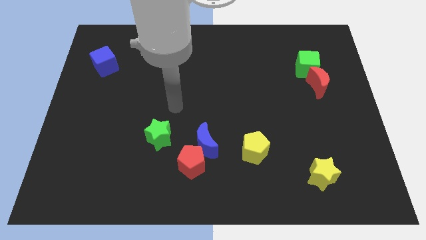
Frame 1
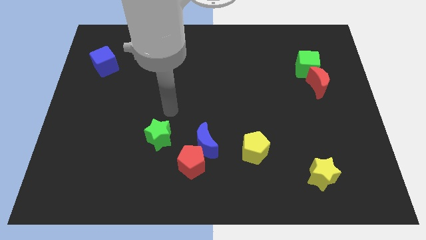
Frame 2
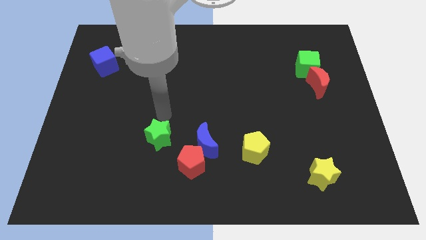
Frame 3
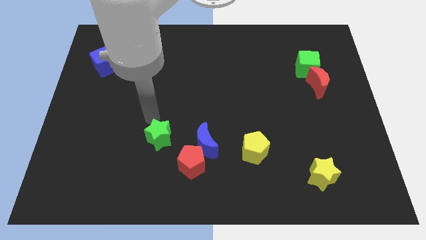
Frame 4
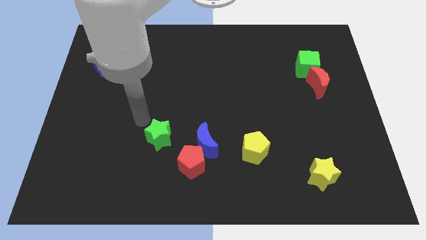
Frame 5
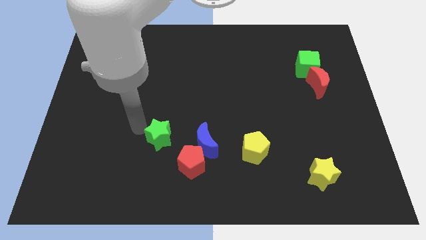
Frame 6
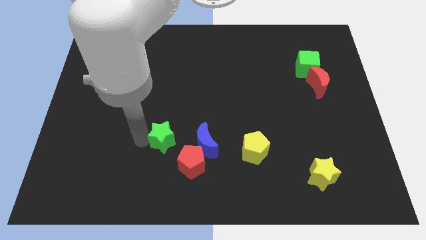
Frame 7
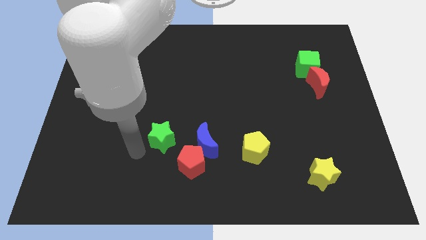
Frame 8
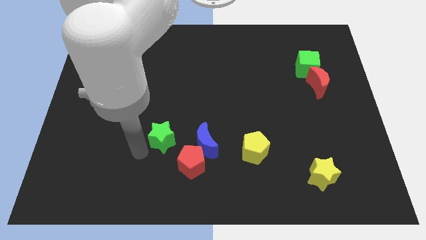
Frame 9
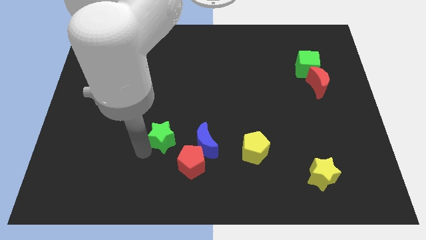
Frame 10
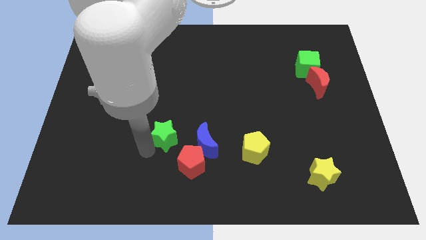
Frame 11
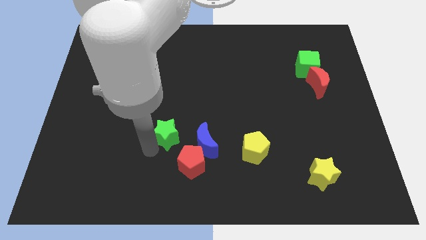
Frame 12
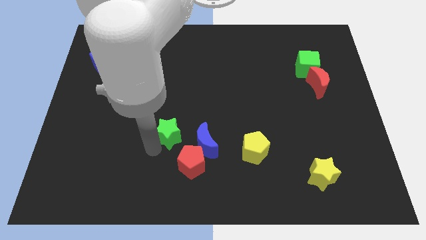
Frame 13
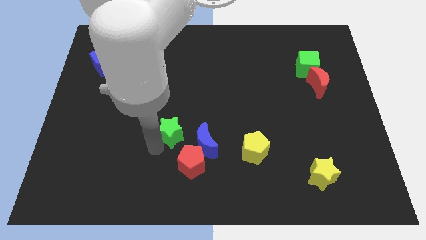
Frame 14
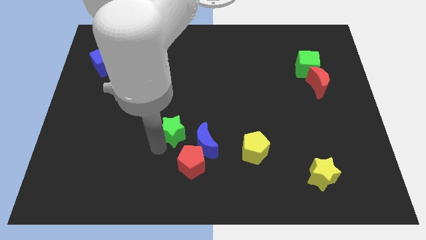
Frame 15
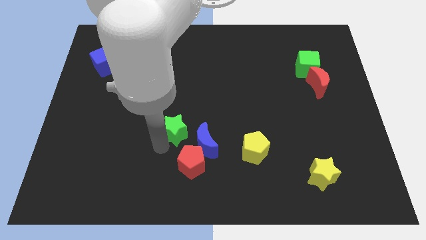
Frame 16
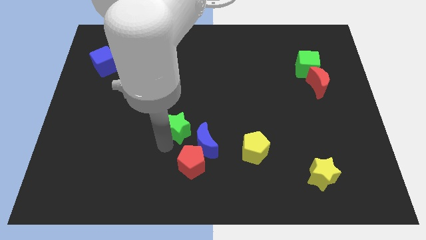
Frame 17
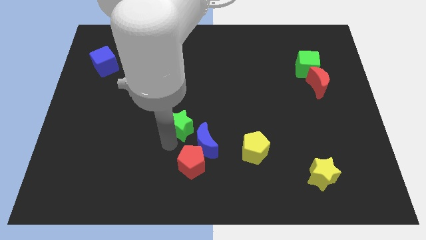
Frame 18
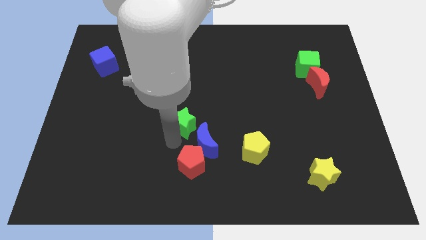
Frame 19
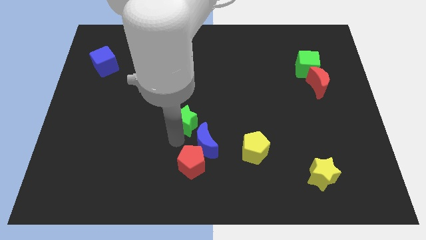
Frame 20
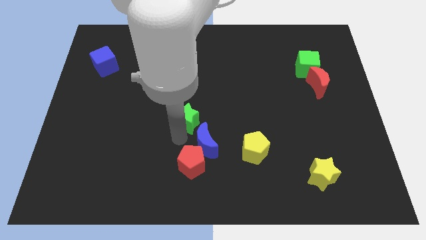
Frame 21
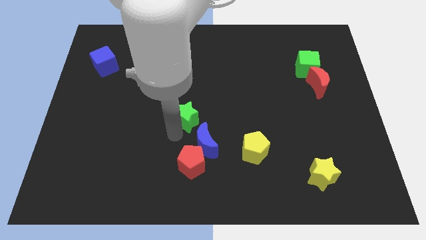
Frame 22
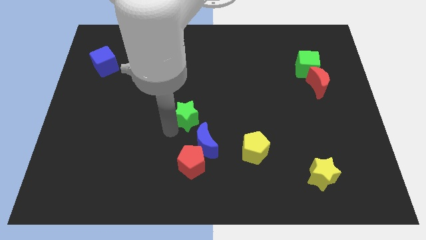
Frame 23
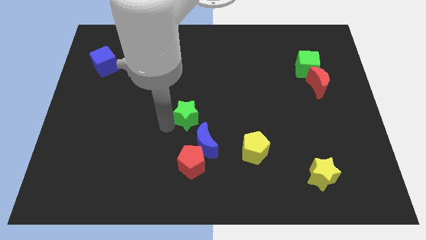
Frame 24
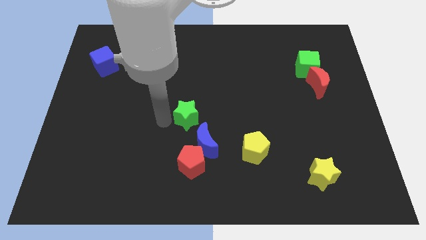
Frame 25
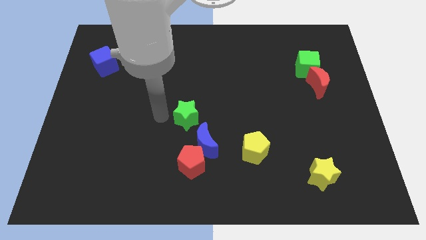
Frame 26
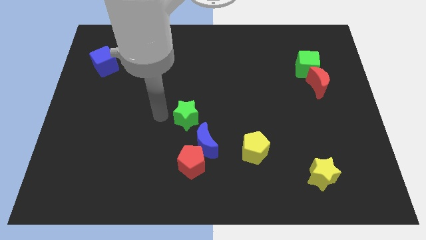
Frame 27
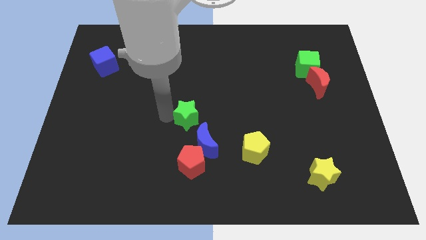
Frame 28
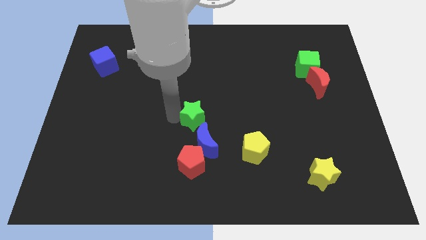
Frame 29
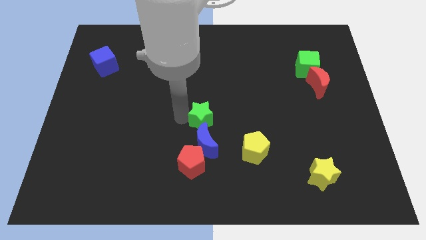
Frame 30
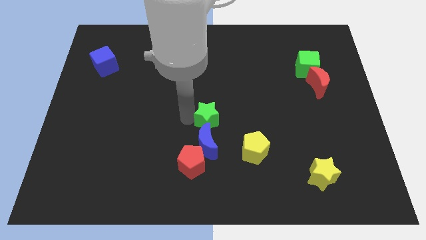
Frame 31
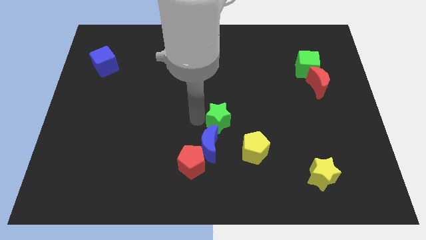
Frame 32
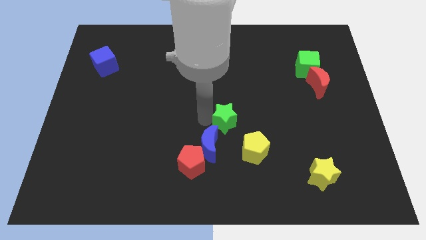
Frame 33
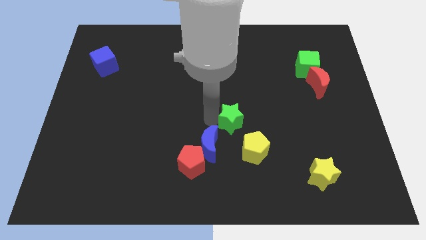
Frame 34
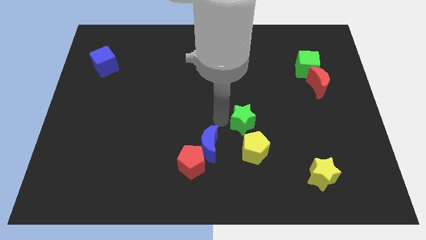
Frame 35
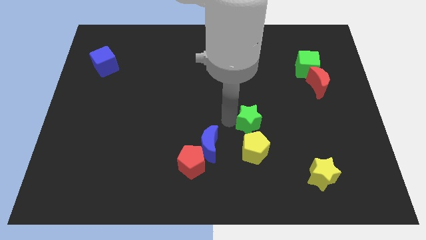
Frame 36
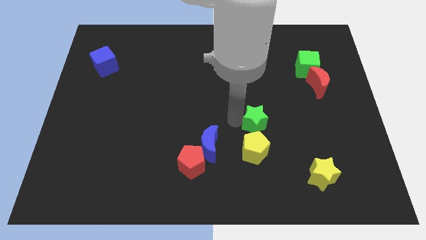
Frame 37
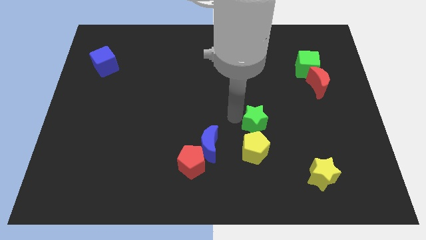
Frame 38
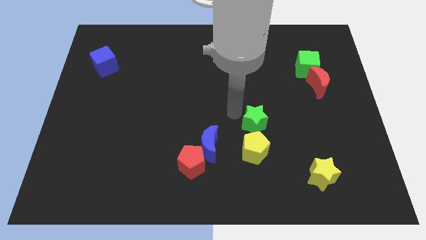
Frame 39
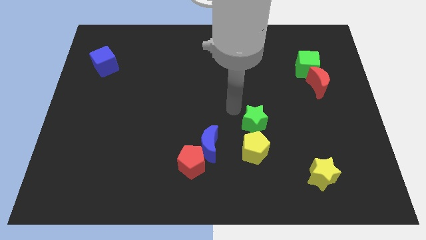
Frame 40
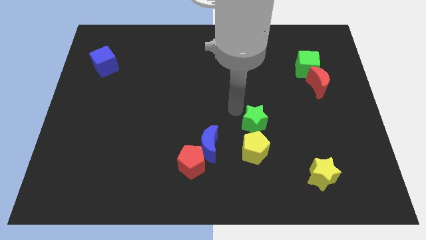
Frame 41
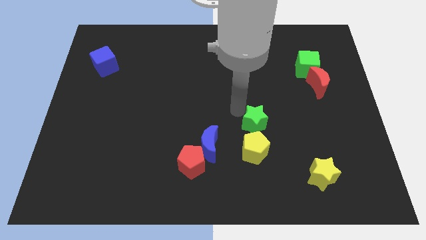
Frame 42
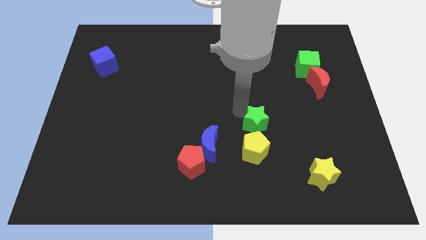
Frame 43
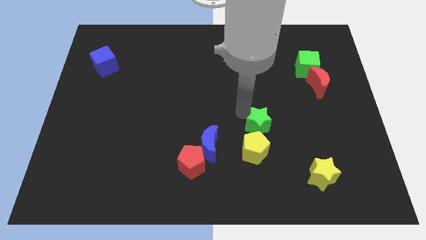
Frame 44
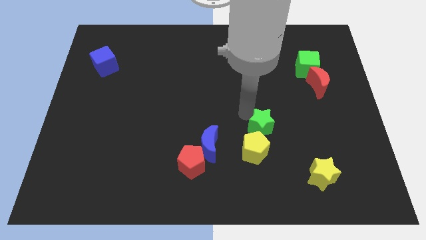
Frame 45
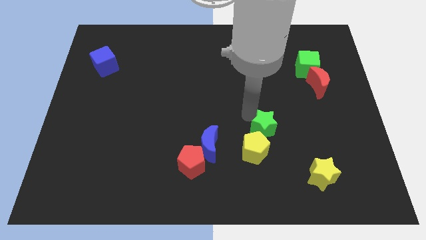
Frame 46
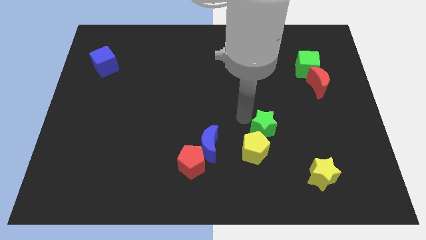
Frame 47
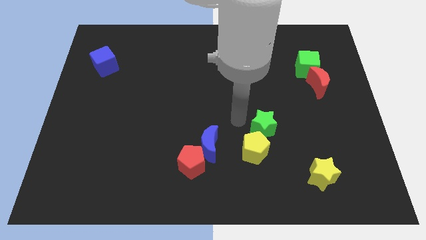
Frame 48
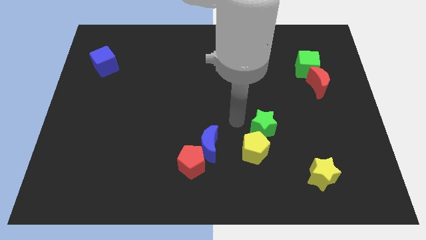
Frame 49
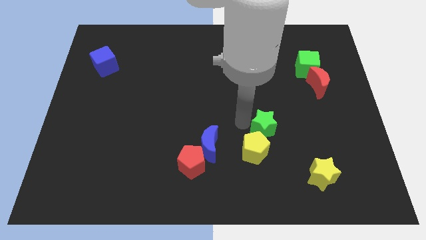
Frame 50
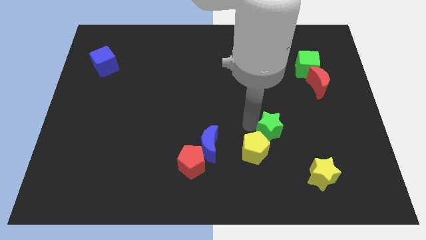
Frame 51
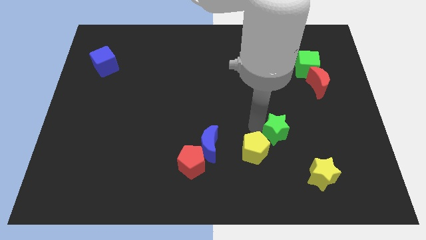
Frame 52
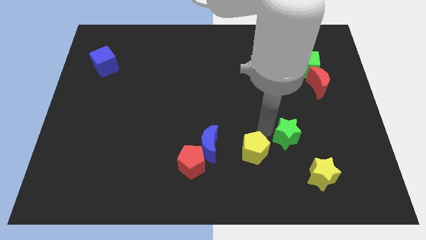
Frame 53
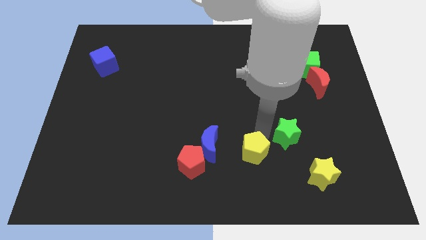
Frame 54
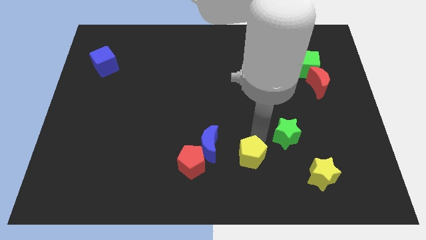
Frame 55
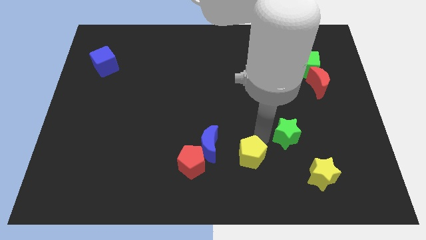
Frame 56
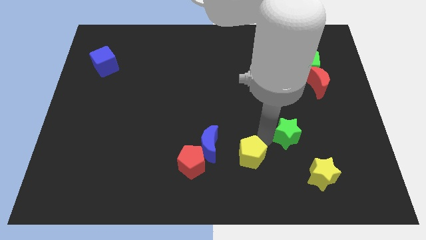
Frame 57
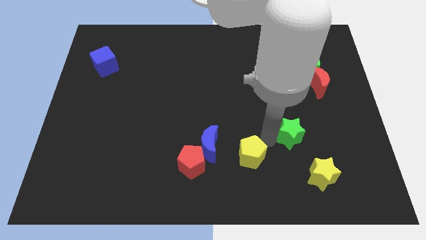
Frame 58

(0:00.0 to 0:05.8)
put the green star to the top side of the yellow star

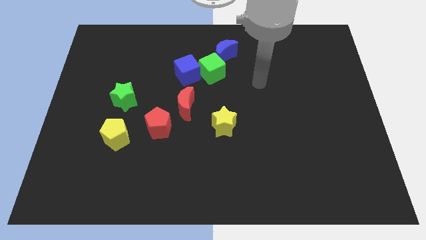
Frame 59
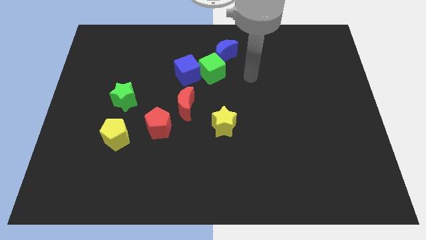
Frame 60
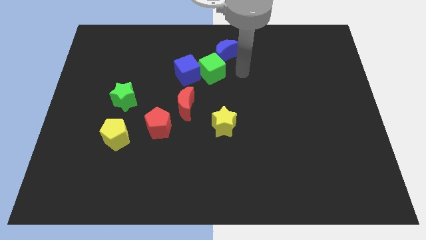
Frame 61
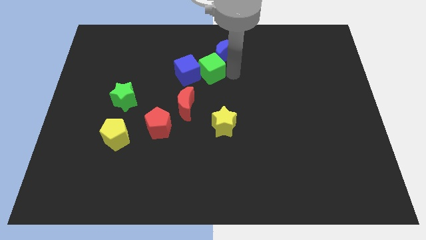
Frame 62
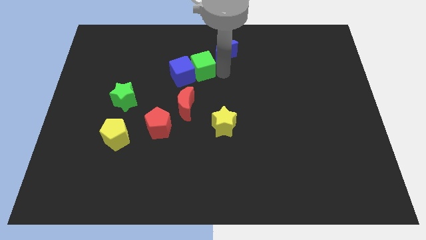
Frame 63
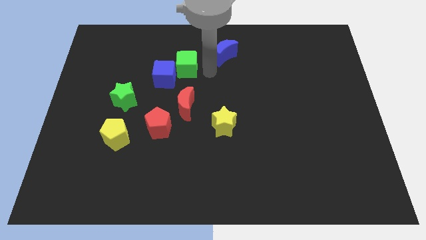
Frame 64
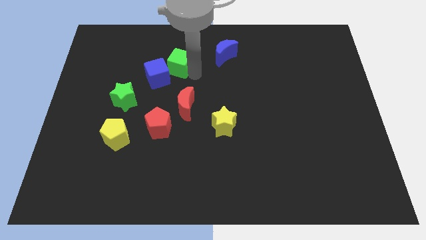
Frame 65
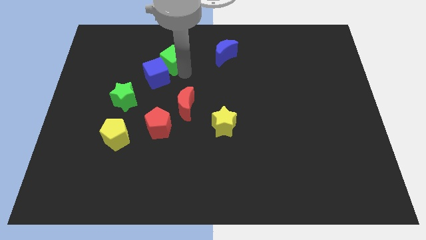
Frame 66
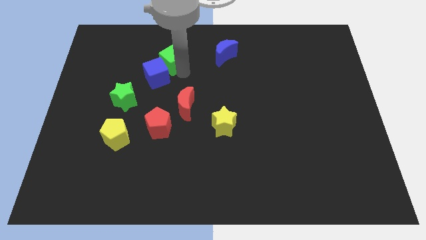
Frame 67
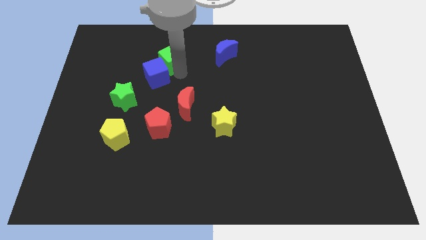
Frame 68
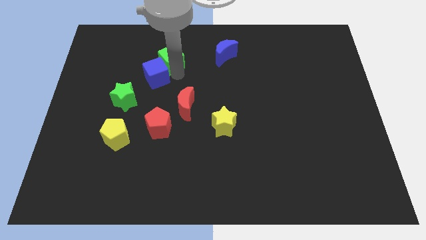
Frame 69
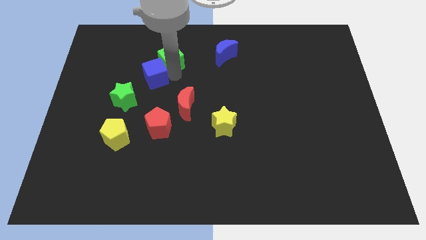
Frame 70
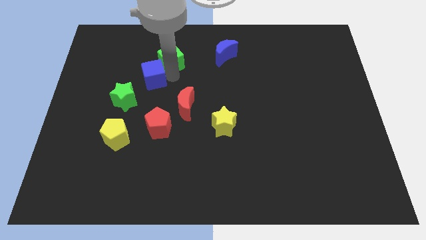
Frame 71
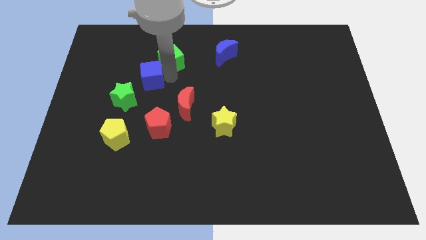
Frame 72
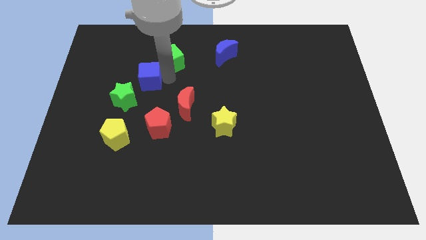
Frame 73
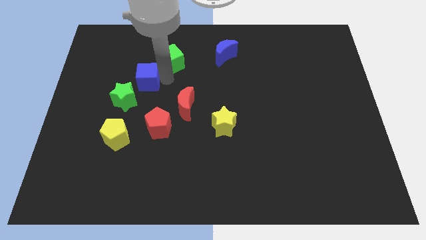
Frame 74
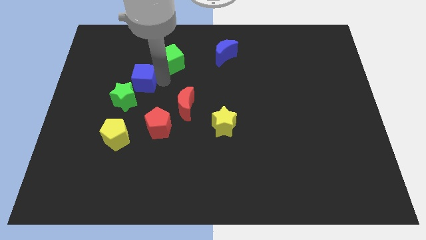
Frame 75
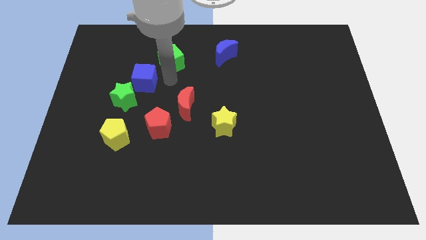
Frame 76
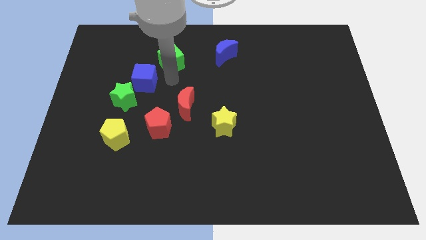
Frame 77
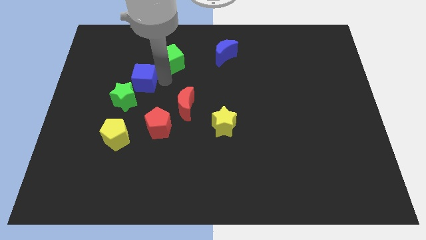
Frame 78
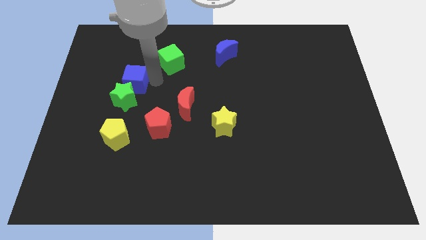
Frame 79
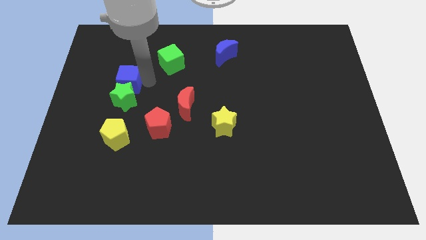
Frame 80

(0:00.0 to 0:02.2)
slide the blue cube to the top left of the green star
